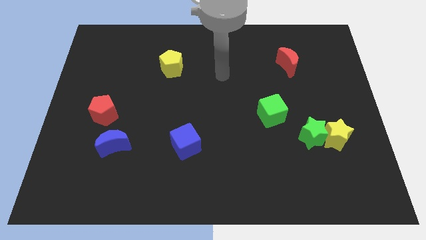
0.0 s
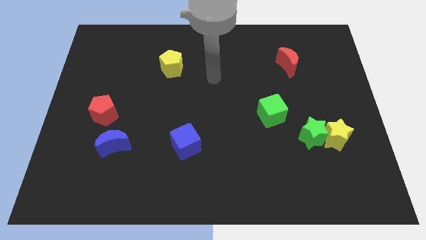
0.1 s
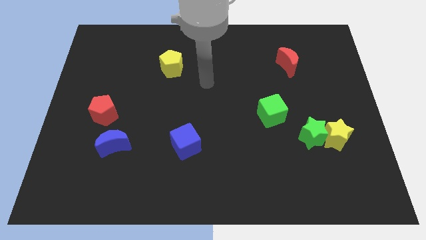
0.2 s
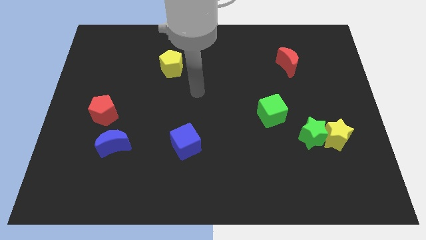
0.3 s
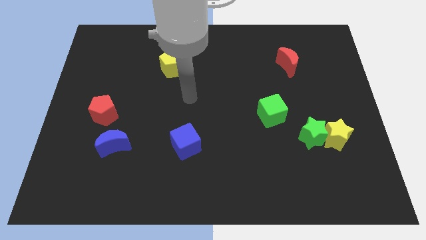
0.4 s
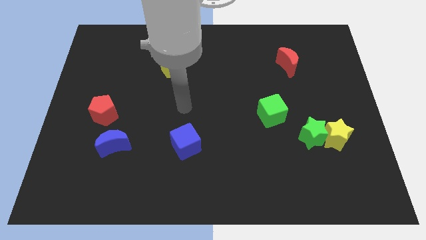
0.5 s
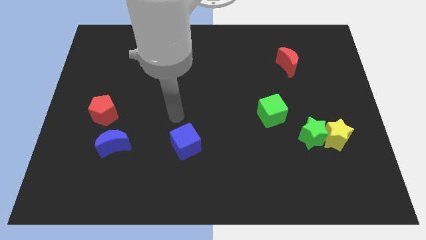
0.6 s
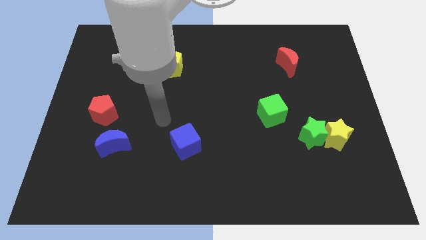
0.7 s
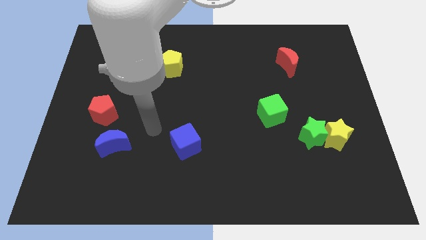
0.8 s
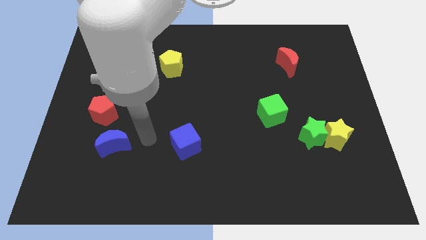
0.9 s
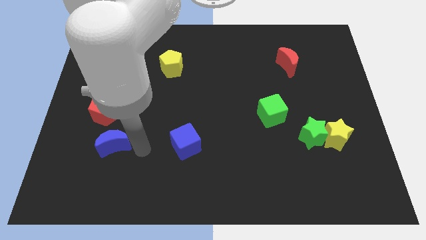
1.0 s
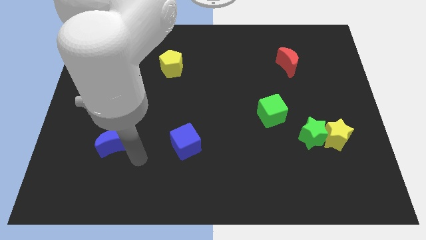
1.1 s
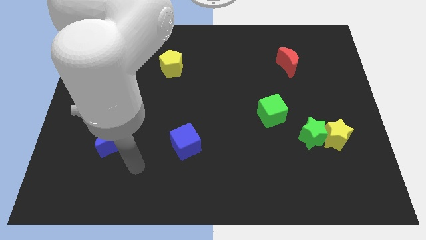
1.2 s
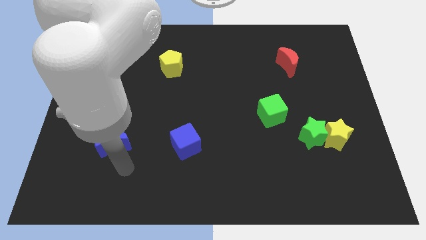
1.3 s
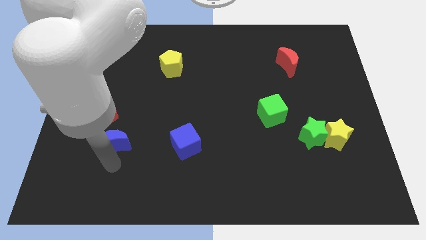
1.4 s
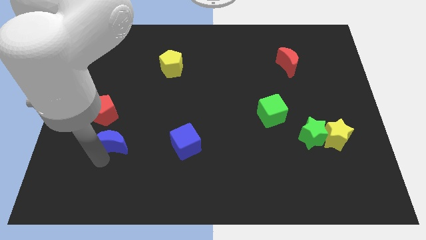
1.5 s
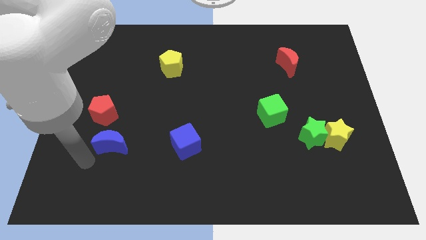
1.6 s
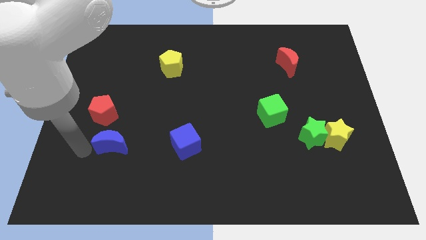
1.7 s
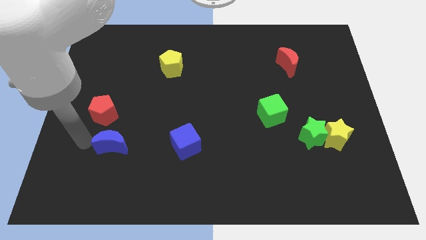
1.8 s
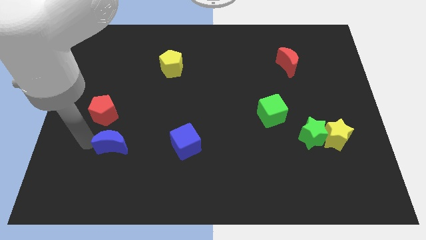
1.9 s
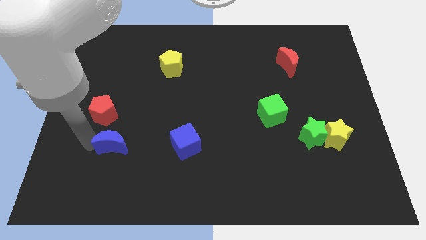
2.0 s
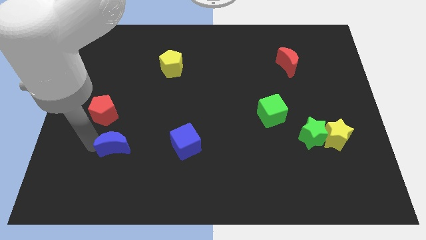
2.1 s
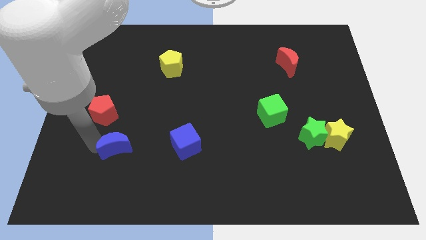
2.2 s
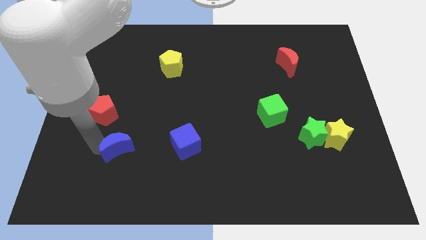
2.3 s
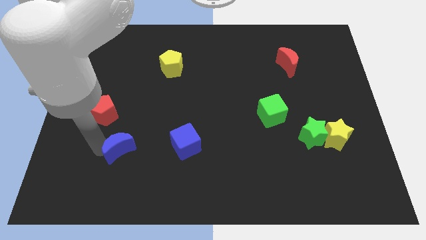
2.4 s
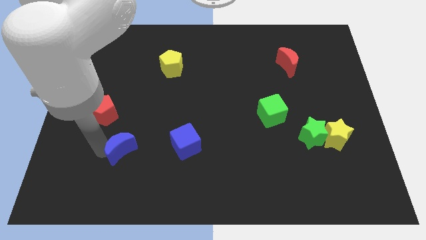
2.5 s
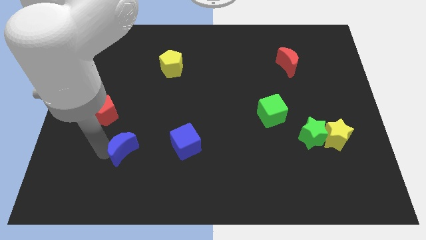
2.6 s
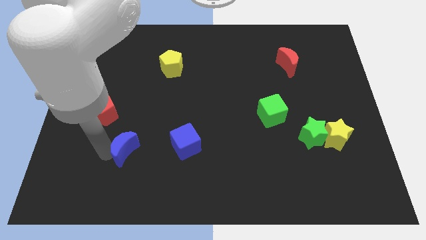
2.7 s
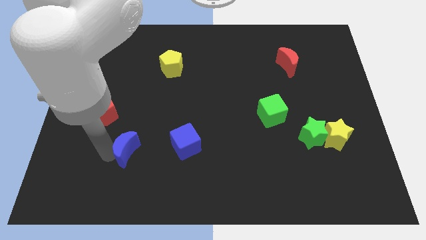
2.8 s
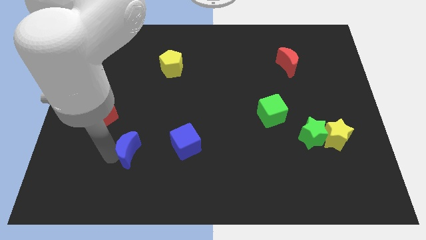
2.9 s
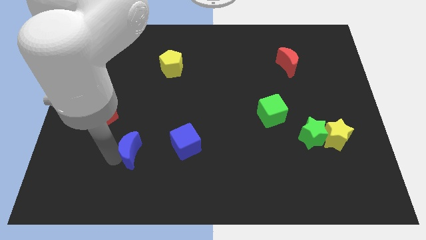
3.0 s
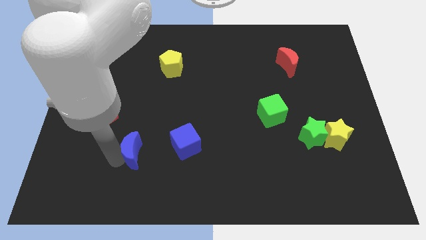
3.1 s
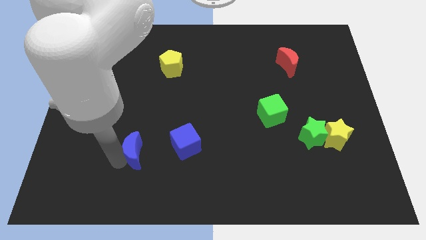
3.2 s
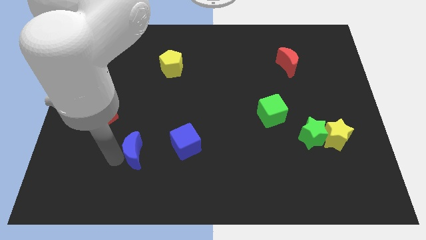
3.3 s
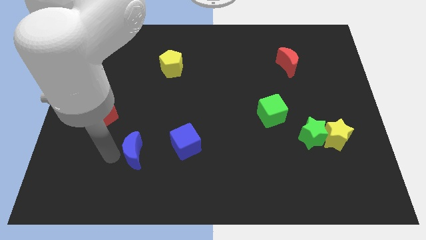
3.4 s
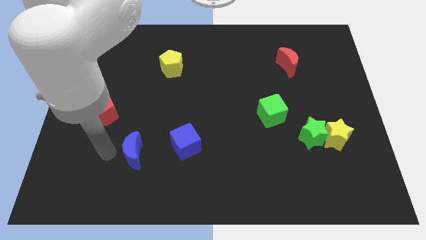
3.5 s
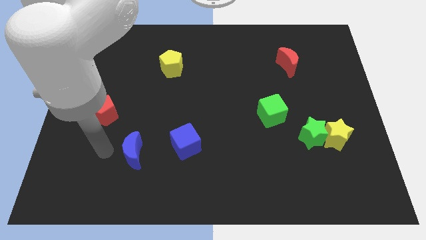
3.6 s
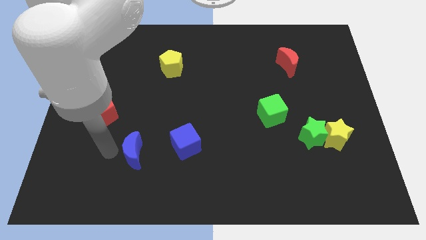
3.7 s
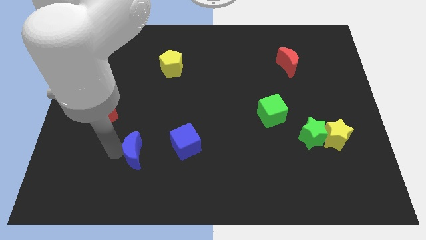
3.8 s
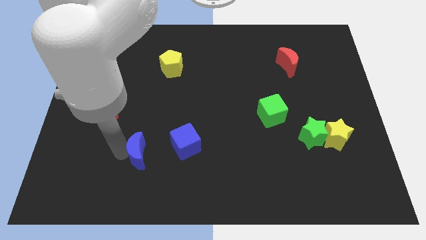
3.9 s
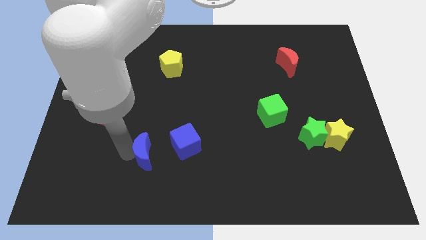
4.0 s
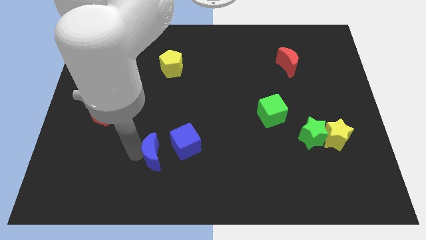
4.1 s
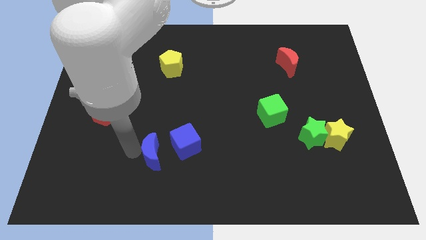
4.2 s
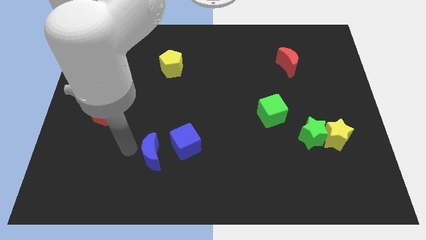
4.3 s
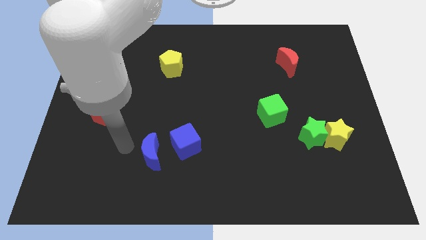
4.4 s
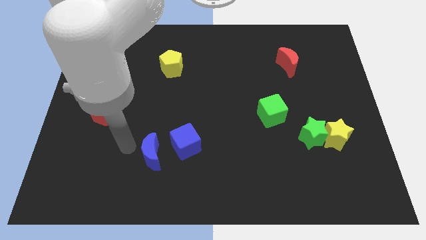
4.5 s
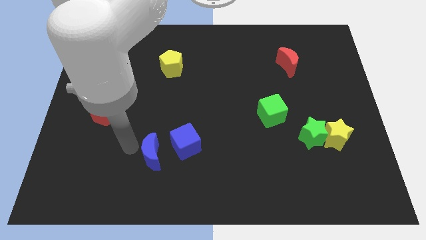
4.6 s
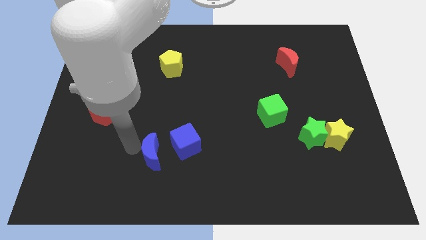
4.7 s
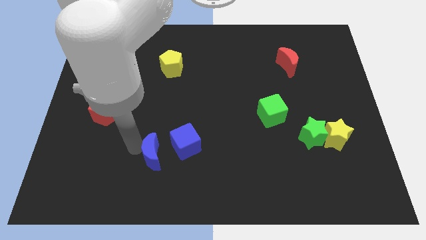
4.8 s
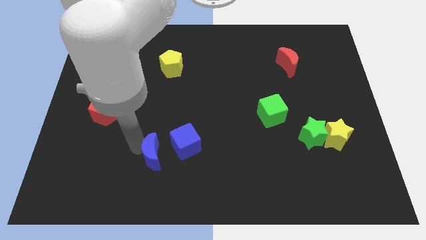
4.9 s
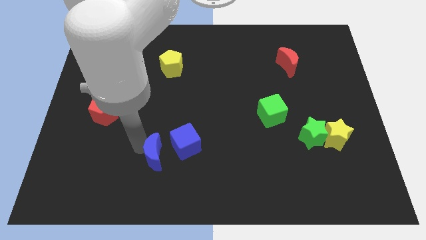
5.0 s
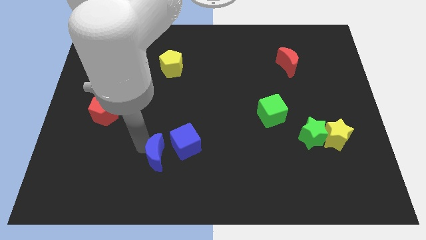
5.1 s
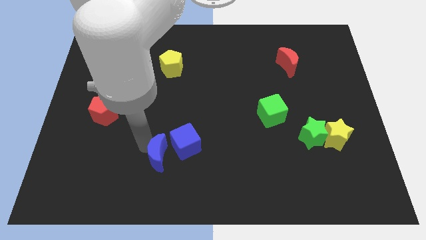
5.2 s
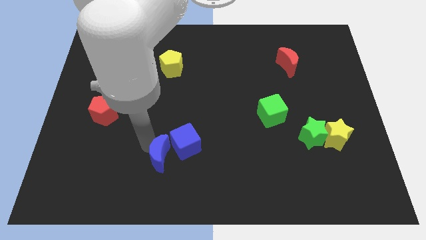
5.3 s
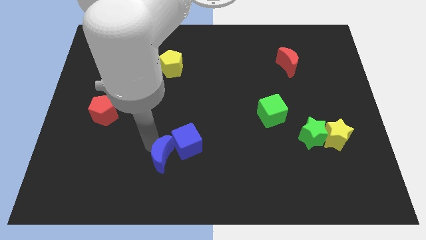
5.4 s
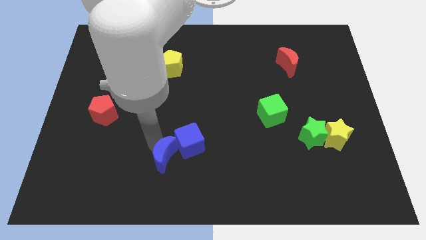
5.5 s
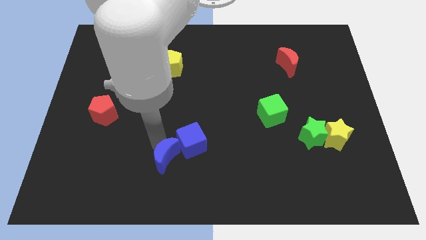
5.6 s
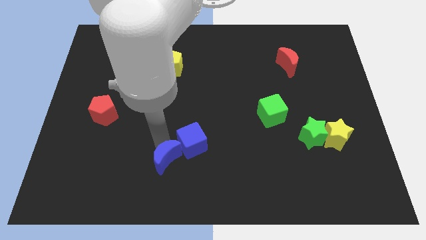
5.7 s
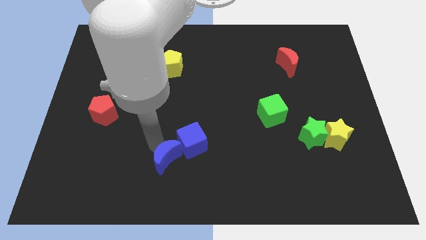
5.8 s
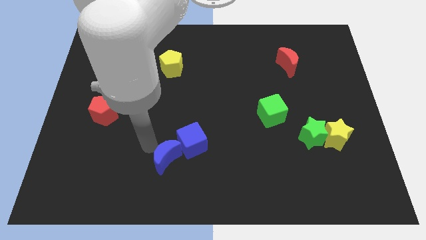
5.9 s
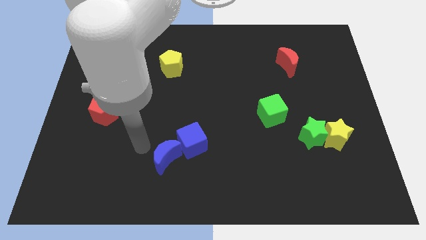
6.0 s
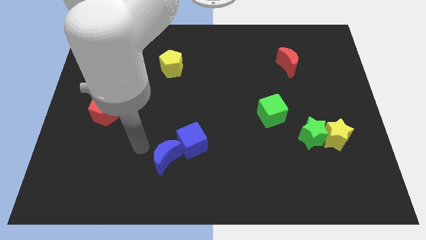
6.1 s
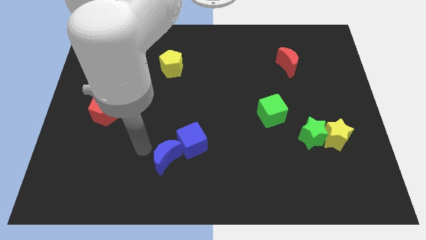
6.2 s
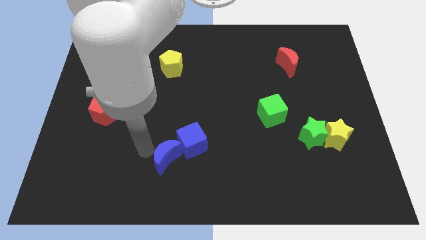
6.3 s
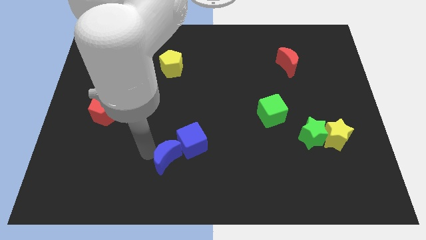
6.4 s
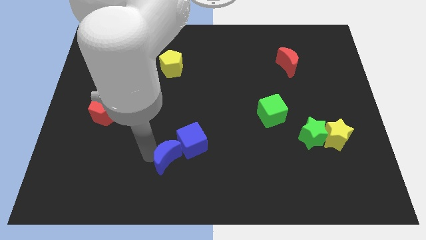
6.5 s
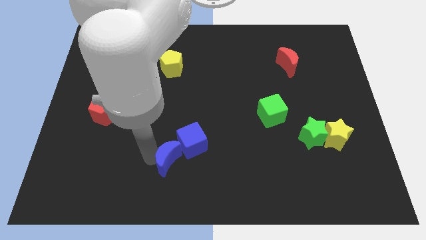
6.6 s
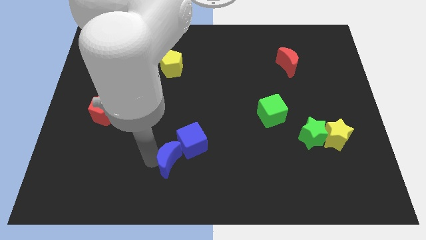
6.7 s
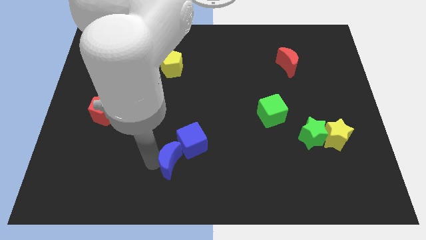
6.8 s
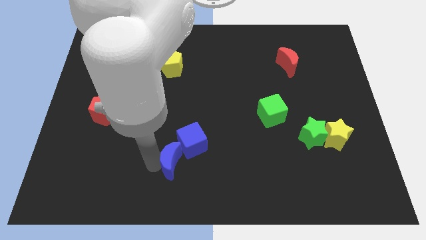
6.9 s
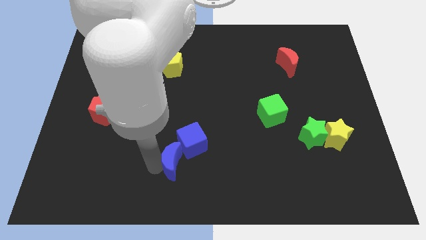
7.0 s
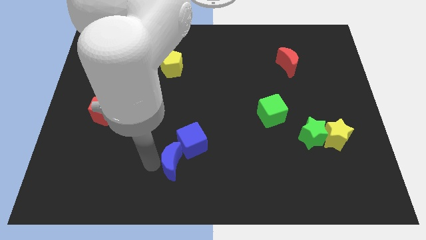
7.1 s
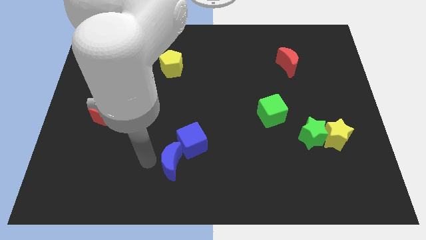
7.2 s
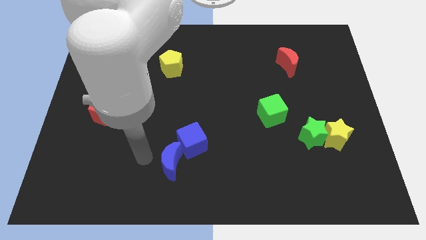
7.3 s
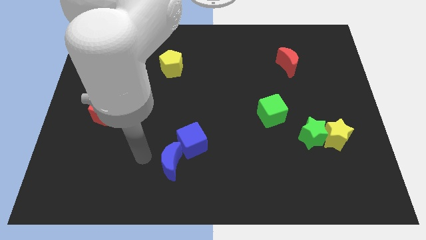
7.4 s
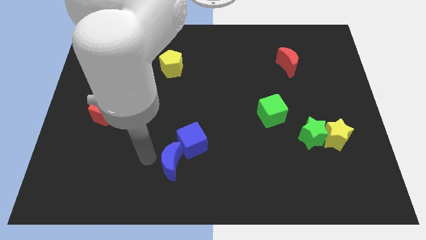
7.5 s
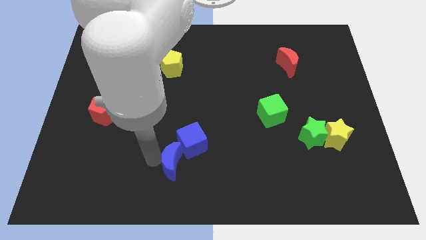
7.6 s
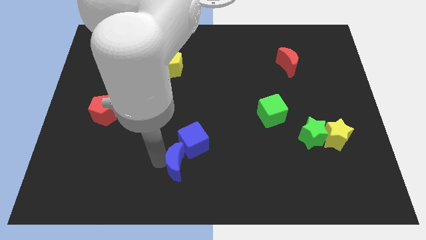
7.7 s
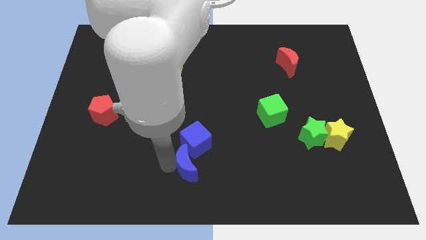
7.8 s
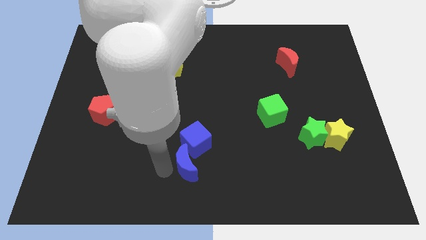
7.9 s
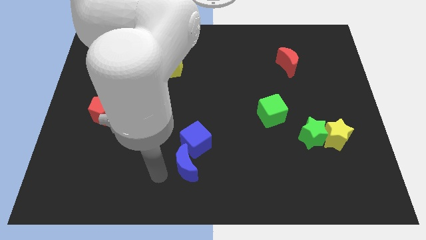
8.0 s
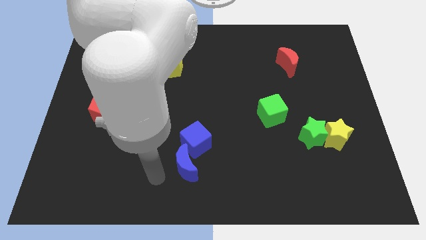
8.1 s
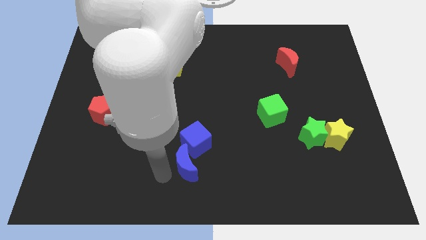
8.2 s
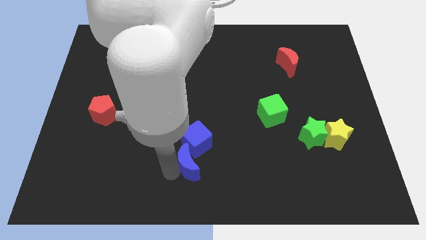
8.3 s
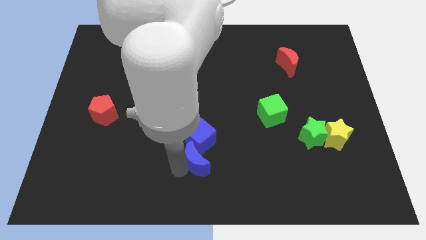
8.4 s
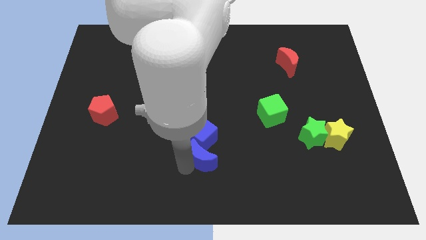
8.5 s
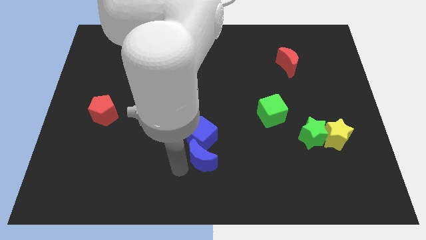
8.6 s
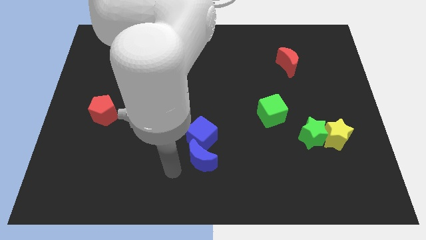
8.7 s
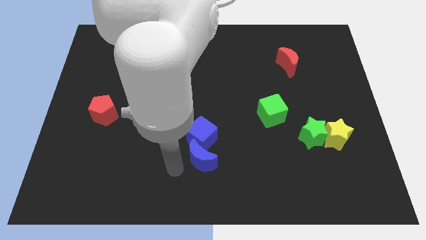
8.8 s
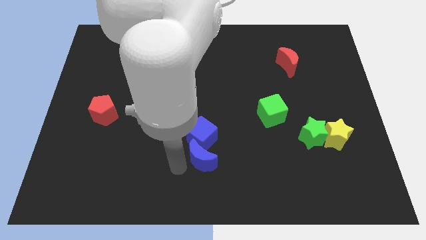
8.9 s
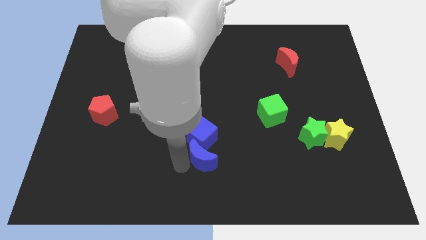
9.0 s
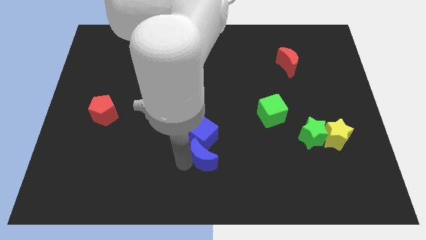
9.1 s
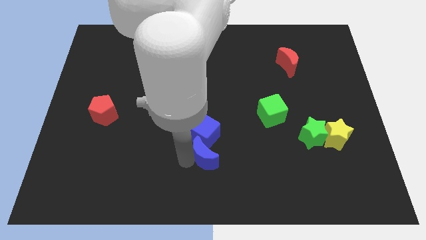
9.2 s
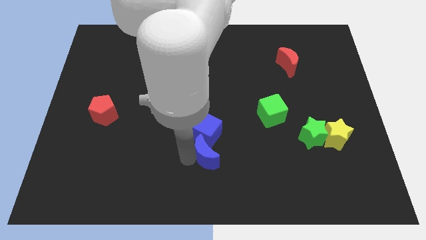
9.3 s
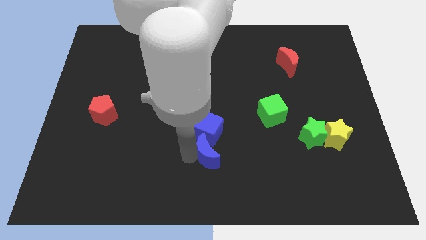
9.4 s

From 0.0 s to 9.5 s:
push the blue moon to the right
